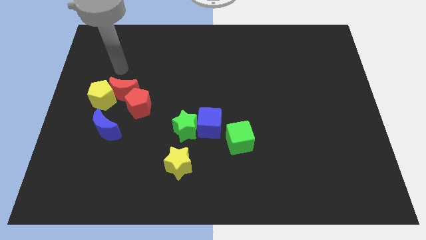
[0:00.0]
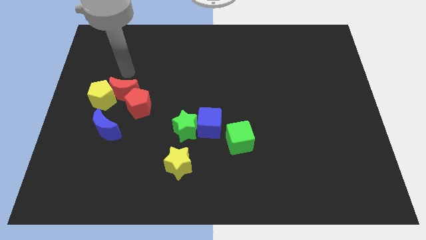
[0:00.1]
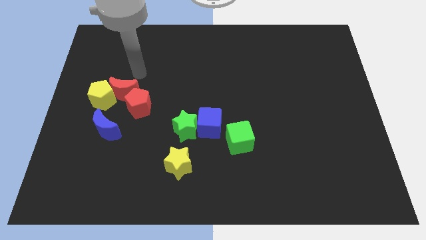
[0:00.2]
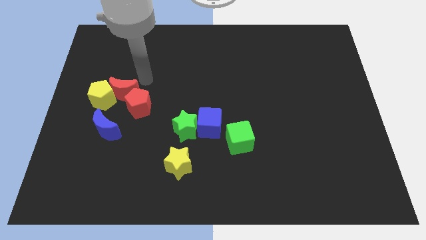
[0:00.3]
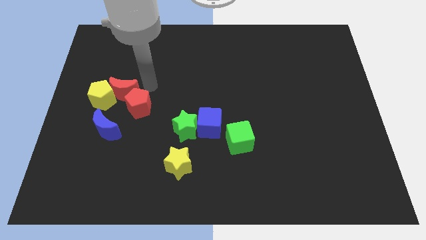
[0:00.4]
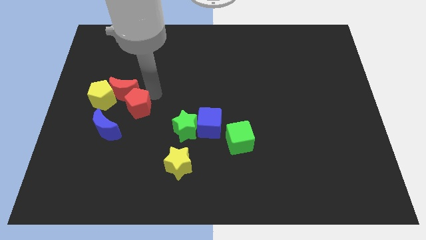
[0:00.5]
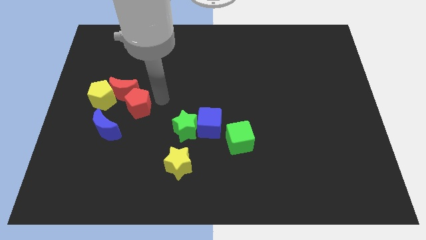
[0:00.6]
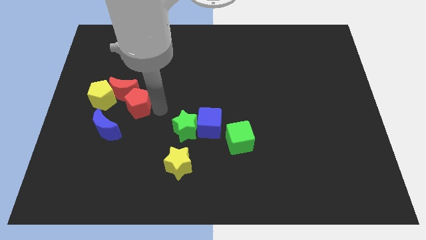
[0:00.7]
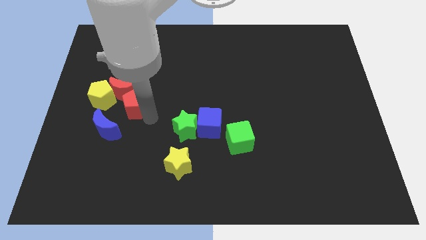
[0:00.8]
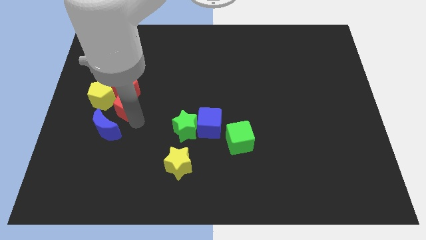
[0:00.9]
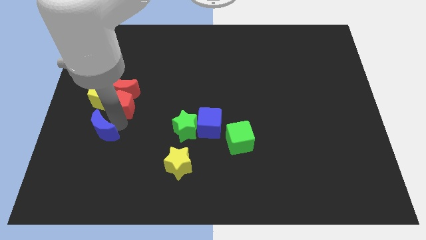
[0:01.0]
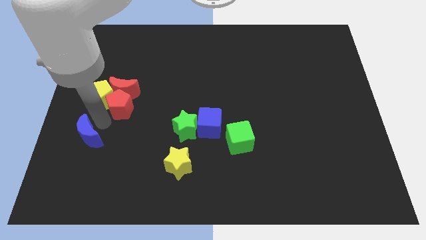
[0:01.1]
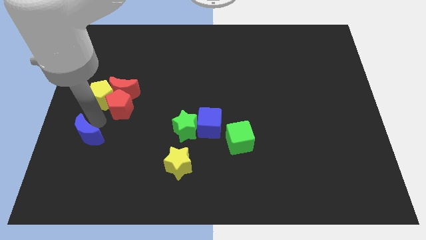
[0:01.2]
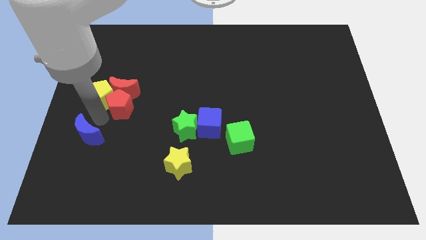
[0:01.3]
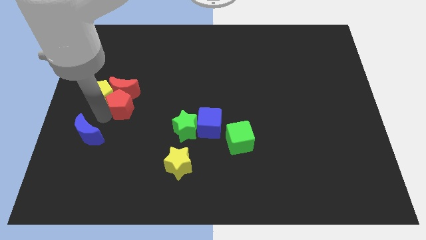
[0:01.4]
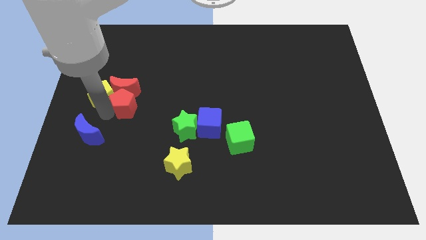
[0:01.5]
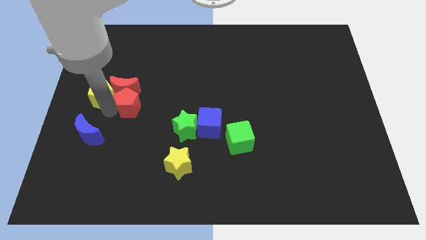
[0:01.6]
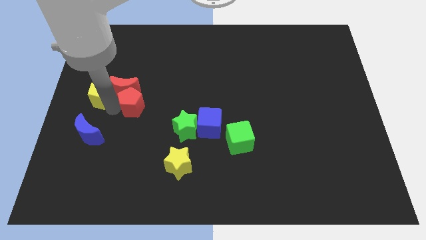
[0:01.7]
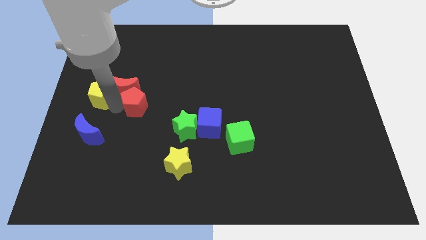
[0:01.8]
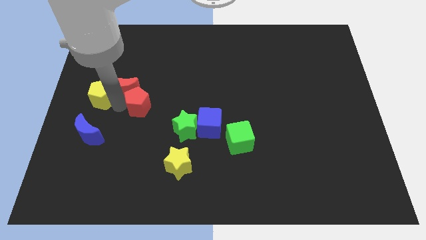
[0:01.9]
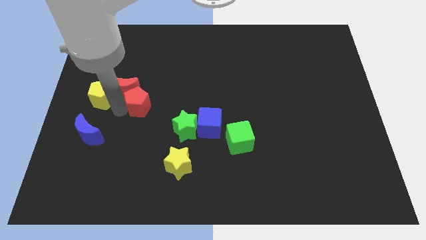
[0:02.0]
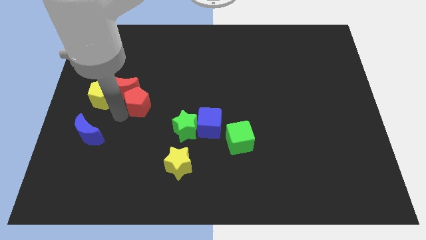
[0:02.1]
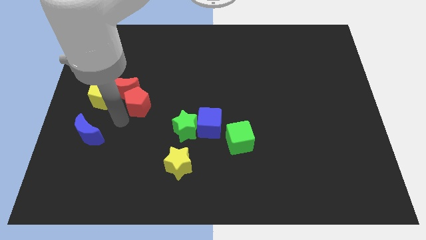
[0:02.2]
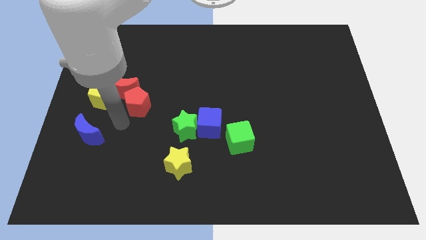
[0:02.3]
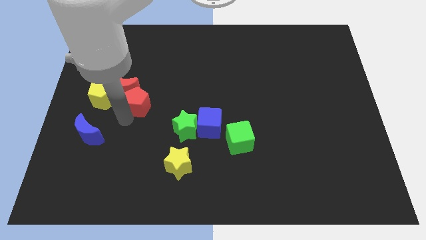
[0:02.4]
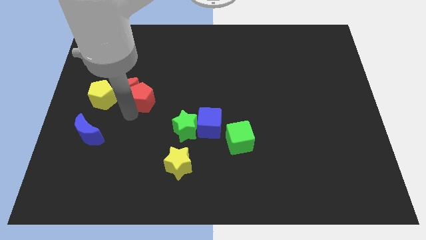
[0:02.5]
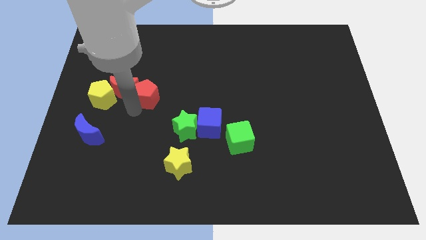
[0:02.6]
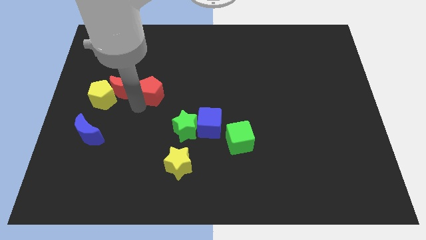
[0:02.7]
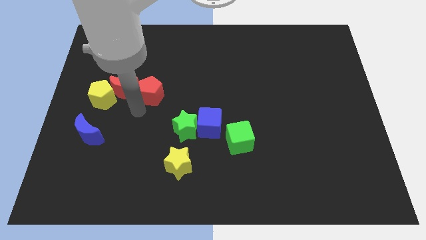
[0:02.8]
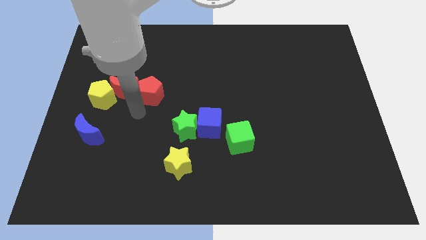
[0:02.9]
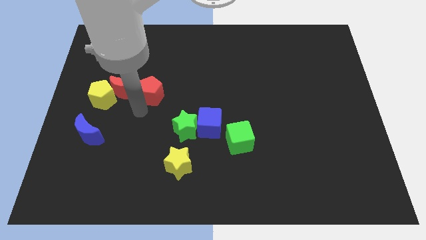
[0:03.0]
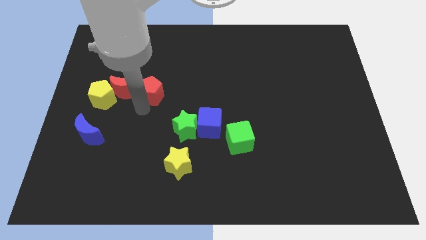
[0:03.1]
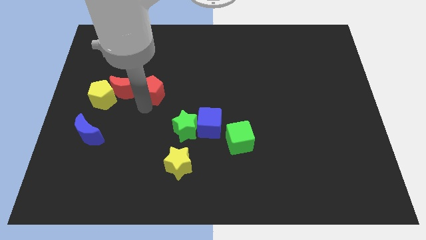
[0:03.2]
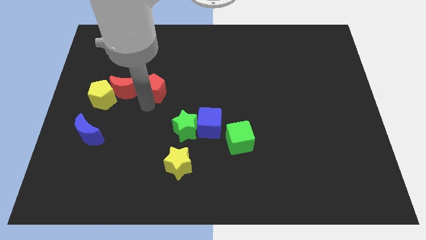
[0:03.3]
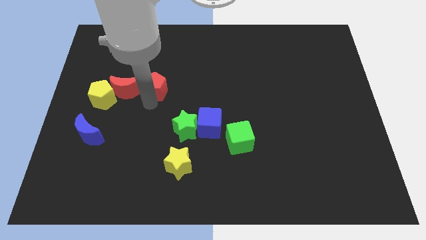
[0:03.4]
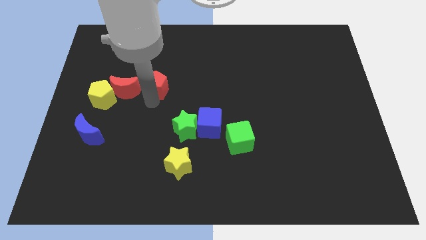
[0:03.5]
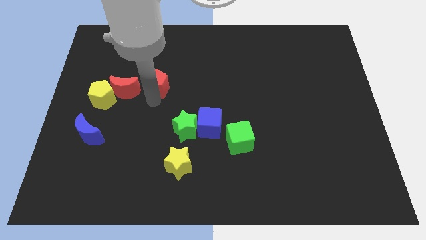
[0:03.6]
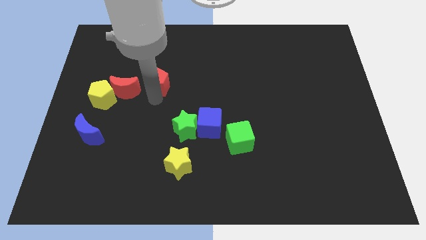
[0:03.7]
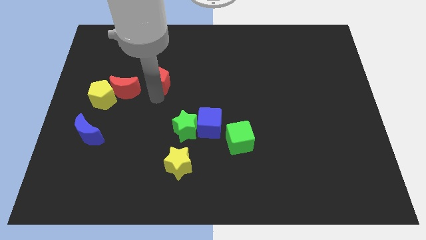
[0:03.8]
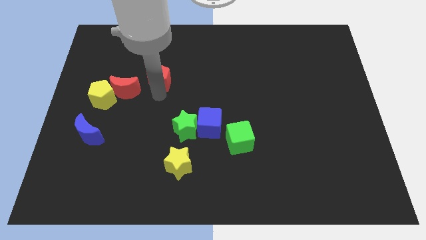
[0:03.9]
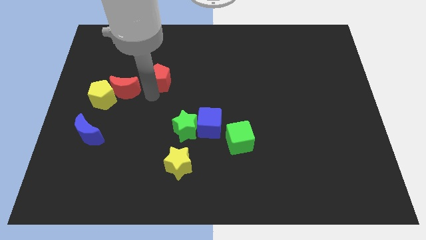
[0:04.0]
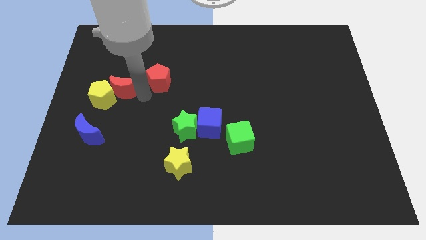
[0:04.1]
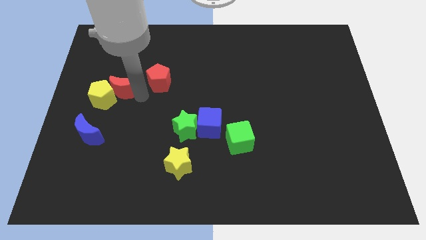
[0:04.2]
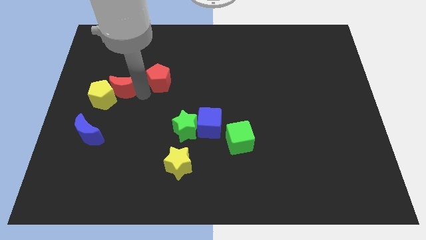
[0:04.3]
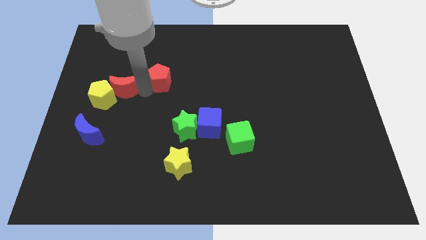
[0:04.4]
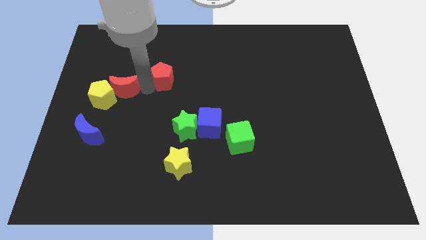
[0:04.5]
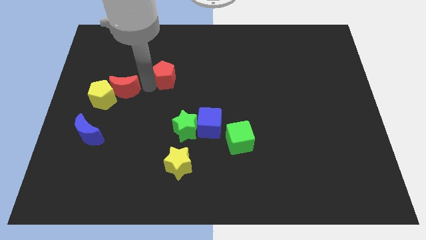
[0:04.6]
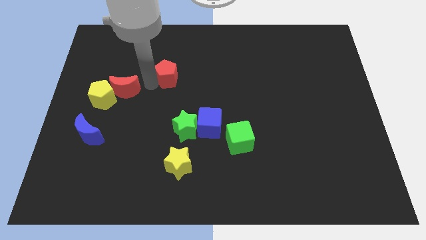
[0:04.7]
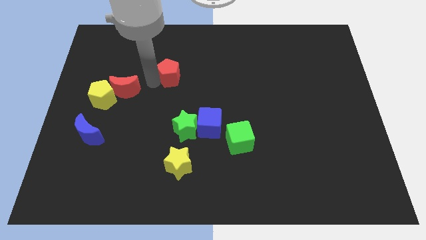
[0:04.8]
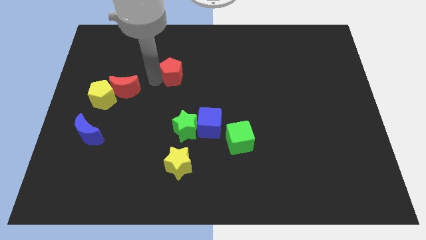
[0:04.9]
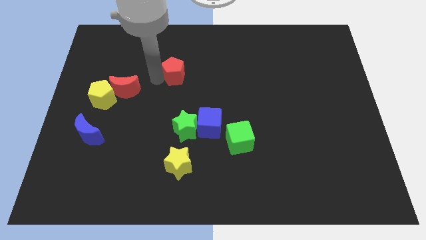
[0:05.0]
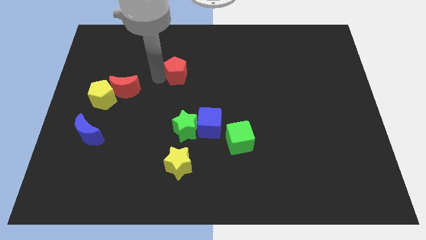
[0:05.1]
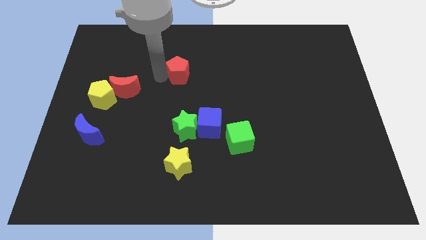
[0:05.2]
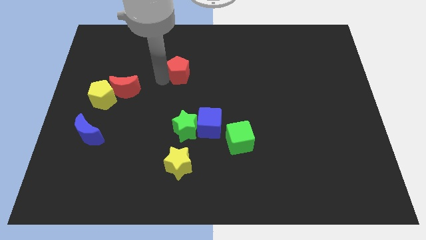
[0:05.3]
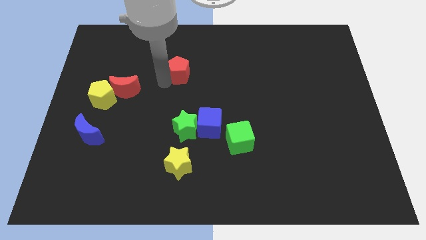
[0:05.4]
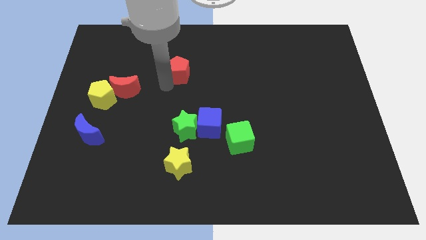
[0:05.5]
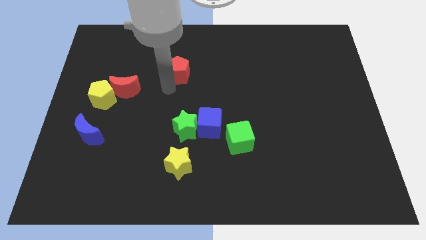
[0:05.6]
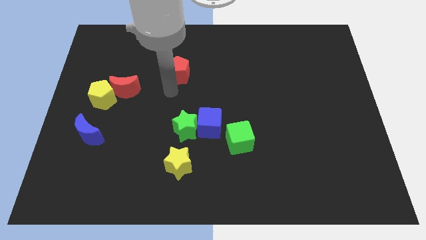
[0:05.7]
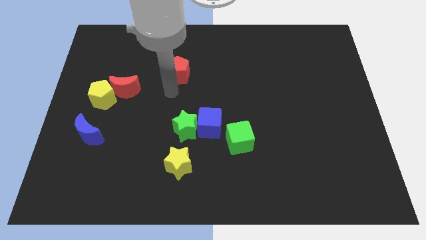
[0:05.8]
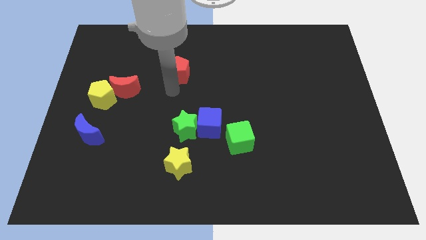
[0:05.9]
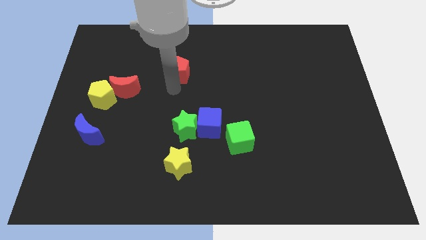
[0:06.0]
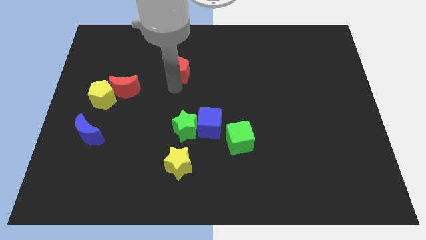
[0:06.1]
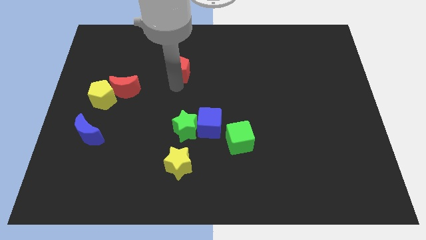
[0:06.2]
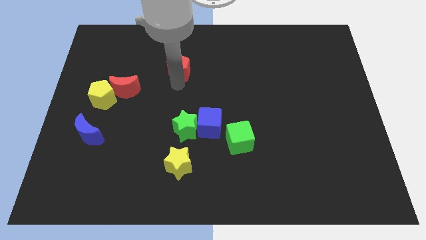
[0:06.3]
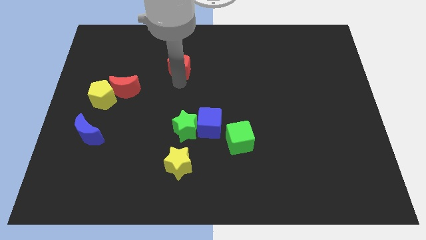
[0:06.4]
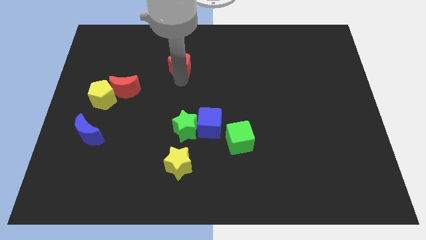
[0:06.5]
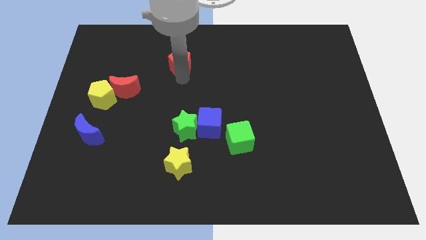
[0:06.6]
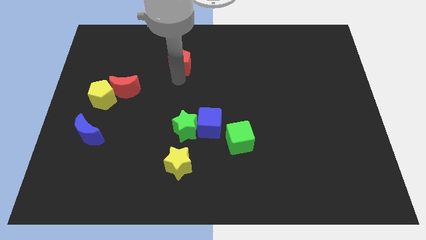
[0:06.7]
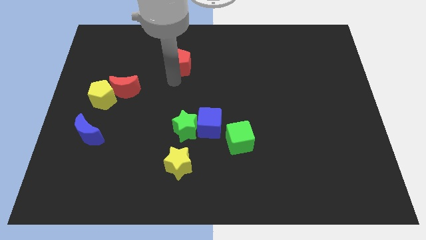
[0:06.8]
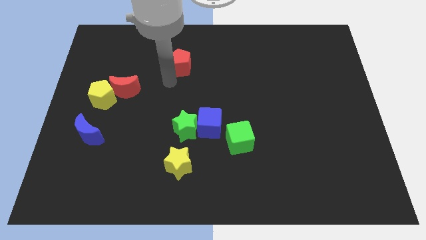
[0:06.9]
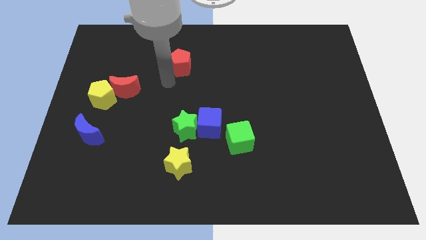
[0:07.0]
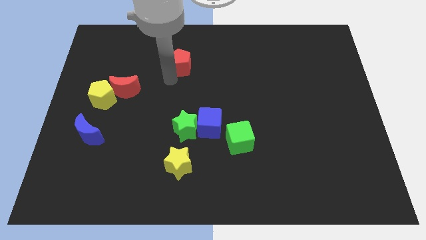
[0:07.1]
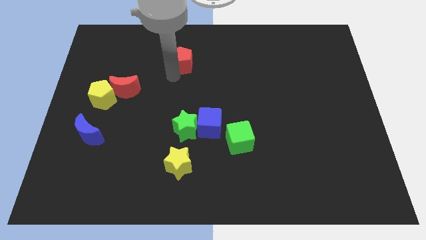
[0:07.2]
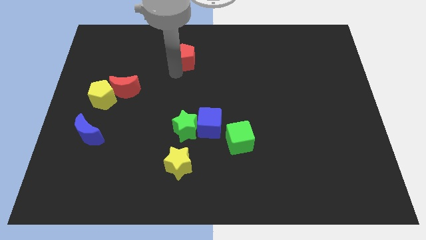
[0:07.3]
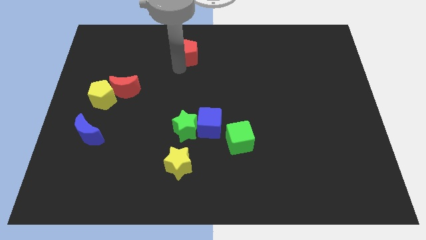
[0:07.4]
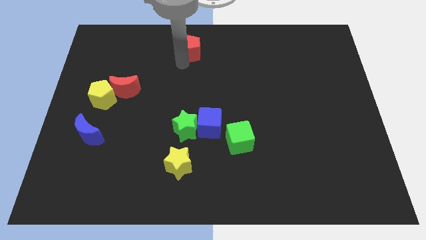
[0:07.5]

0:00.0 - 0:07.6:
slide the red pentagon to the top

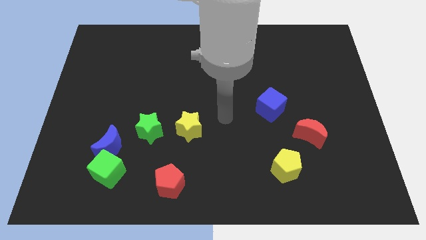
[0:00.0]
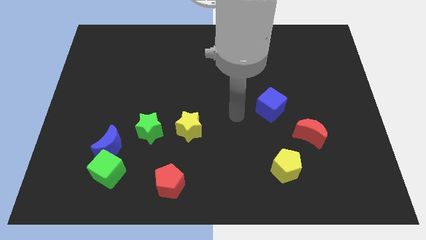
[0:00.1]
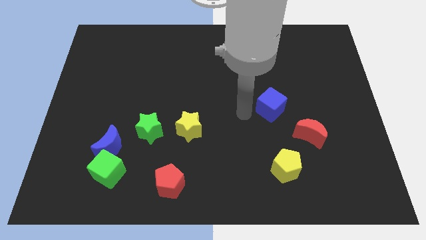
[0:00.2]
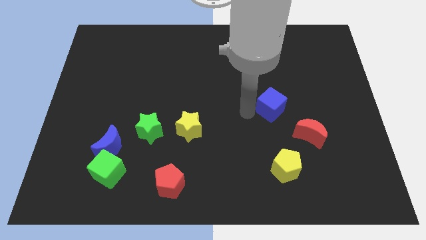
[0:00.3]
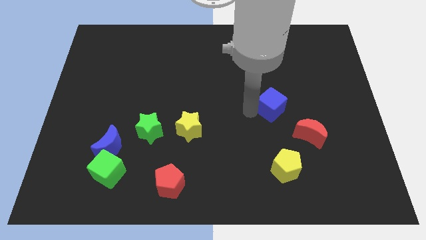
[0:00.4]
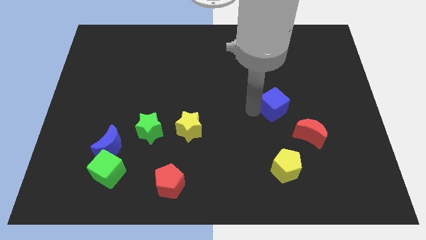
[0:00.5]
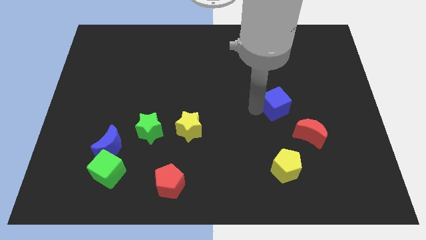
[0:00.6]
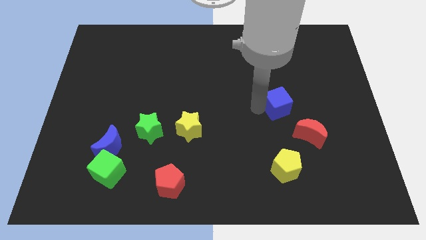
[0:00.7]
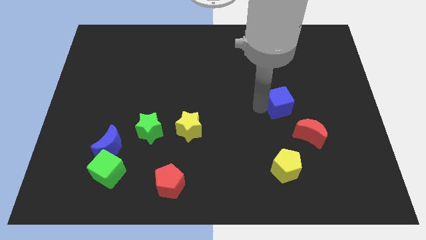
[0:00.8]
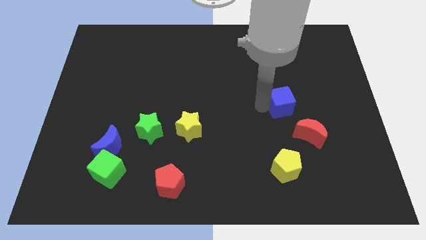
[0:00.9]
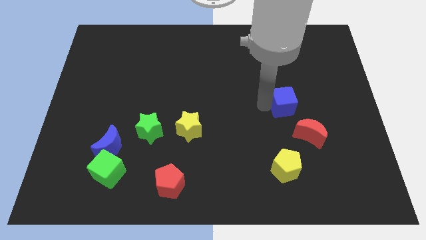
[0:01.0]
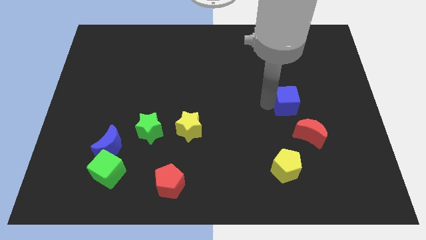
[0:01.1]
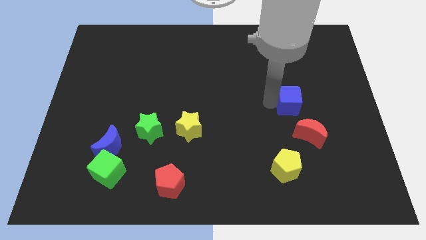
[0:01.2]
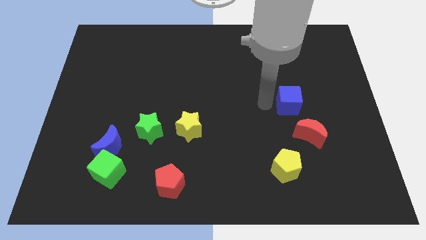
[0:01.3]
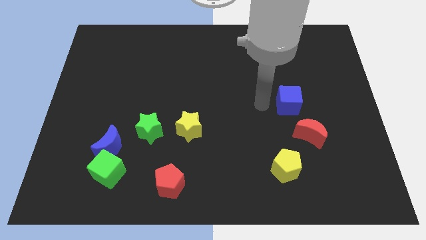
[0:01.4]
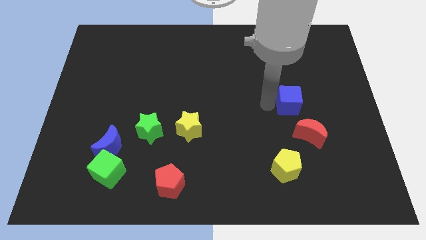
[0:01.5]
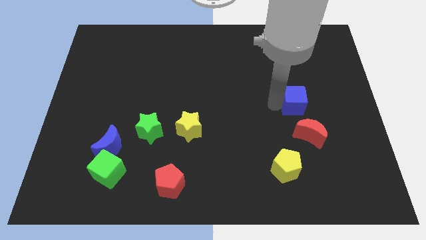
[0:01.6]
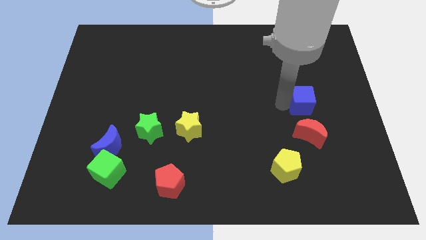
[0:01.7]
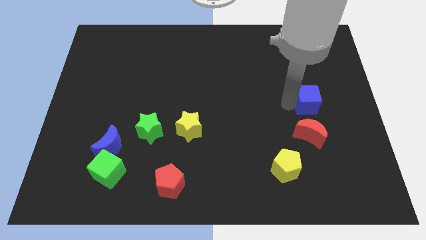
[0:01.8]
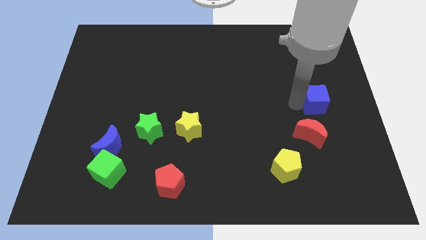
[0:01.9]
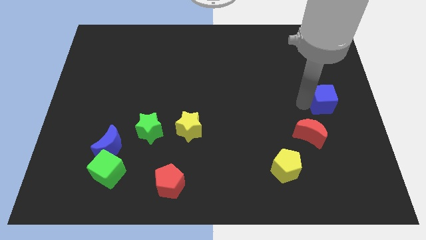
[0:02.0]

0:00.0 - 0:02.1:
move the blue cube to the right side
